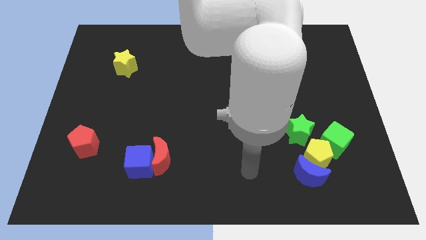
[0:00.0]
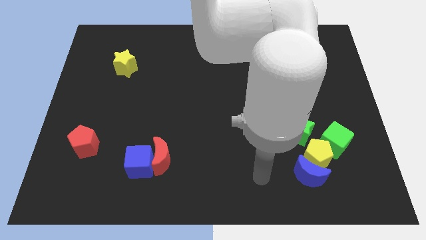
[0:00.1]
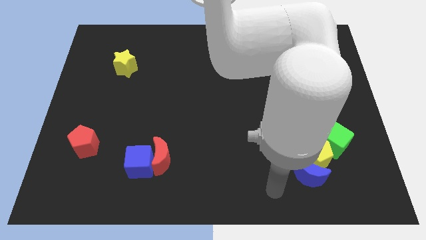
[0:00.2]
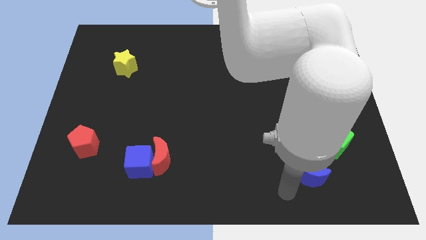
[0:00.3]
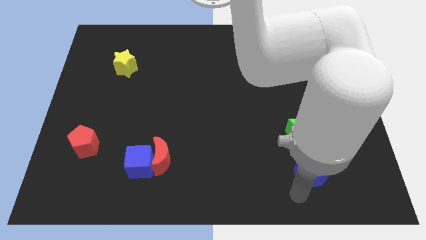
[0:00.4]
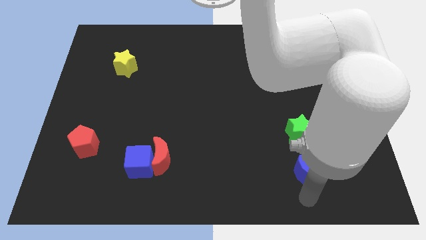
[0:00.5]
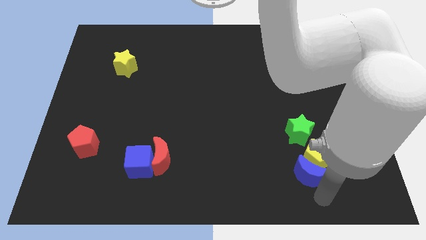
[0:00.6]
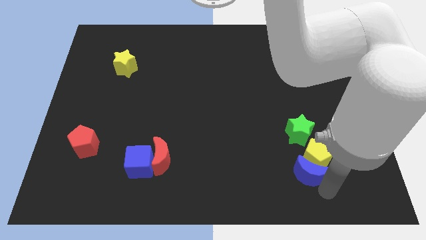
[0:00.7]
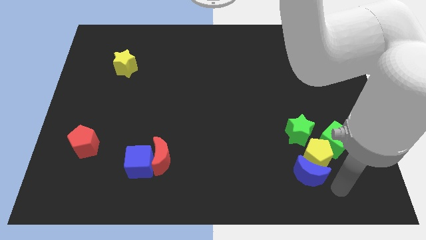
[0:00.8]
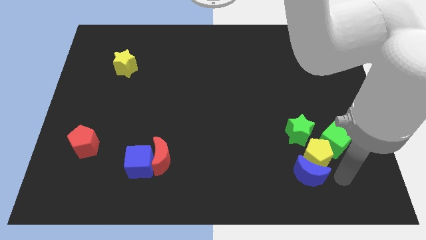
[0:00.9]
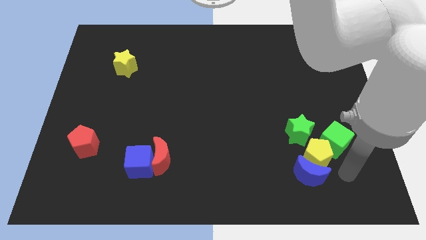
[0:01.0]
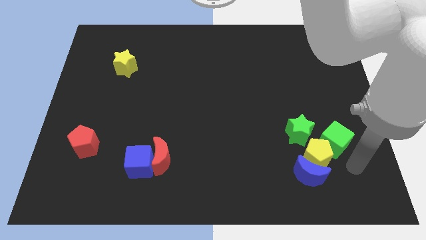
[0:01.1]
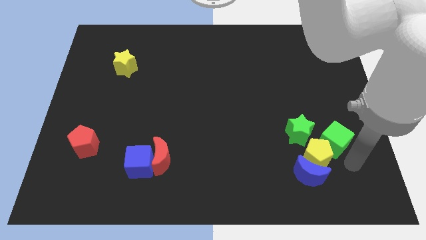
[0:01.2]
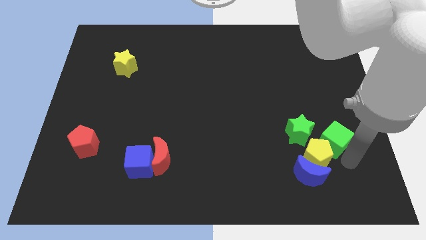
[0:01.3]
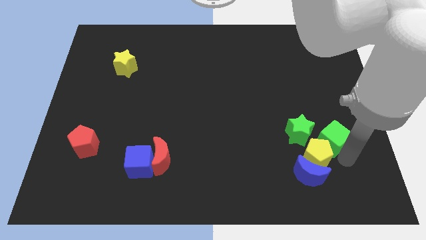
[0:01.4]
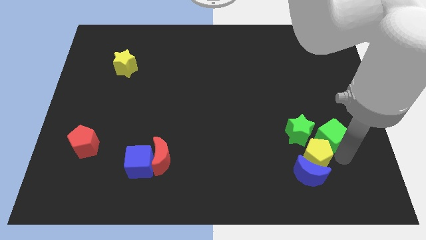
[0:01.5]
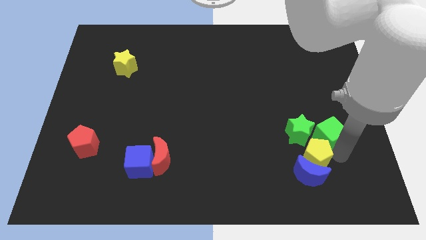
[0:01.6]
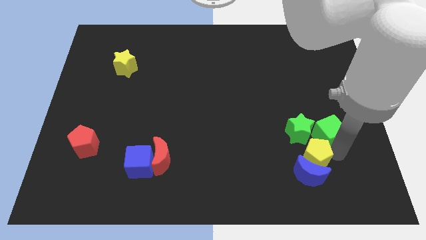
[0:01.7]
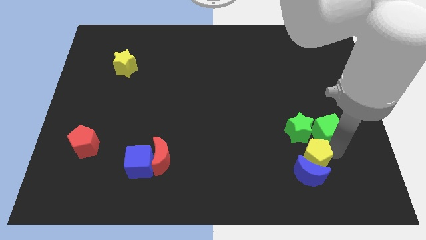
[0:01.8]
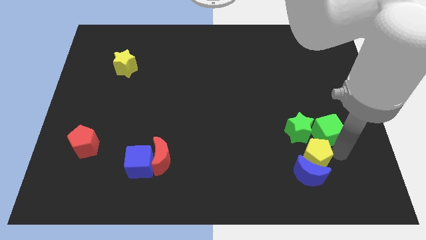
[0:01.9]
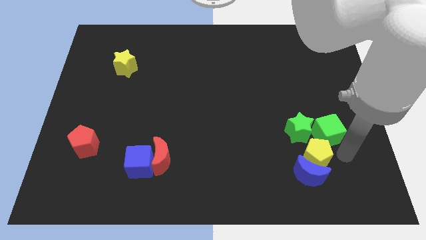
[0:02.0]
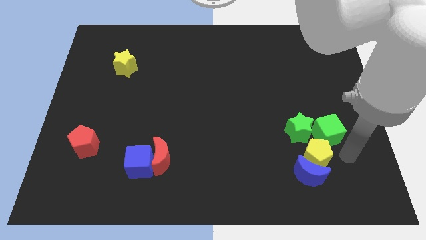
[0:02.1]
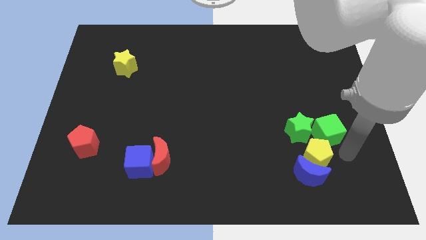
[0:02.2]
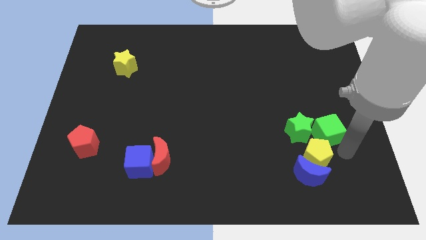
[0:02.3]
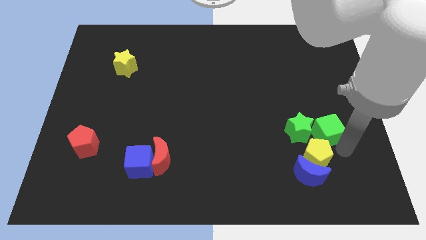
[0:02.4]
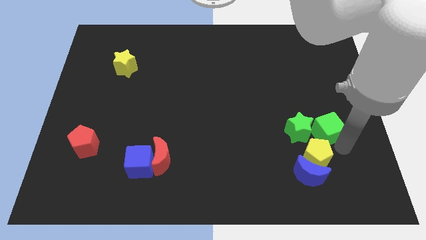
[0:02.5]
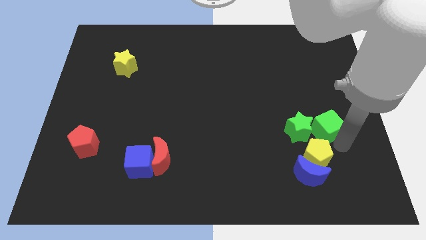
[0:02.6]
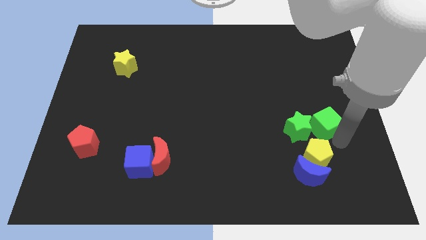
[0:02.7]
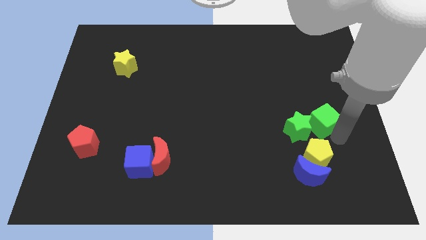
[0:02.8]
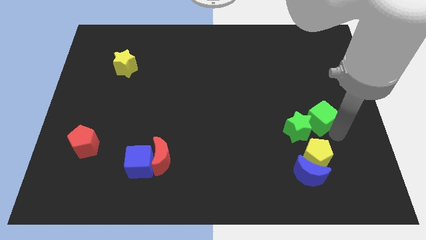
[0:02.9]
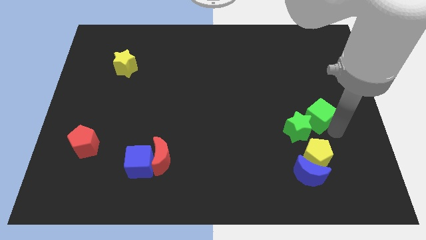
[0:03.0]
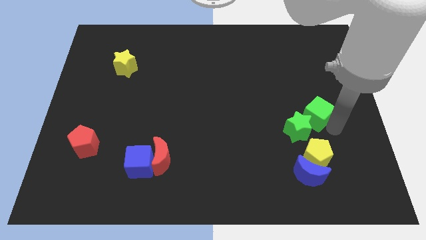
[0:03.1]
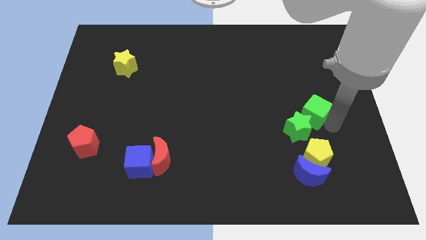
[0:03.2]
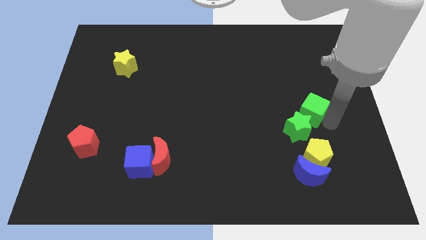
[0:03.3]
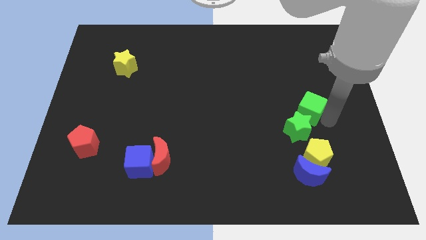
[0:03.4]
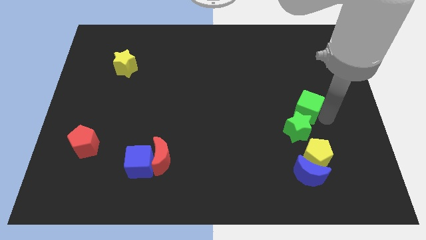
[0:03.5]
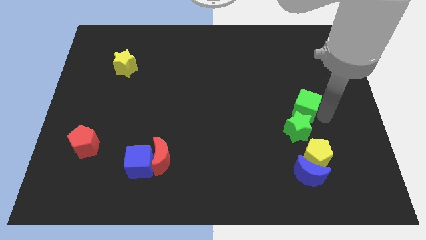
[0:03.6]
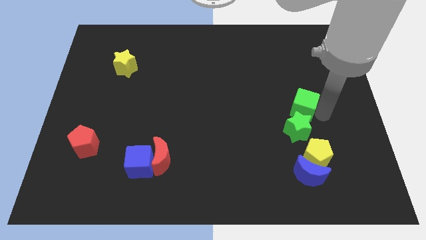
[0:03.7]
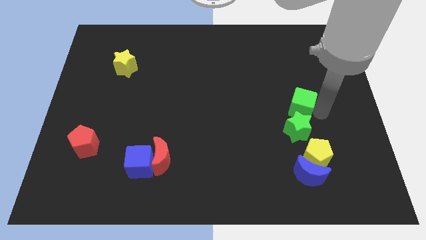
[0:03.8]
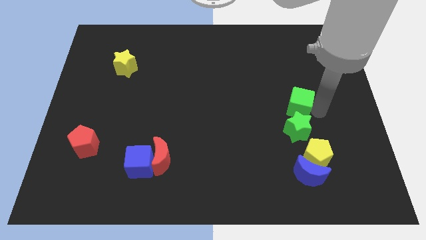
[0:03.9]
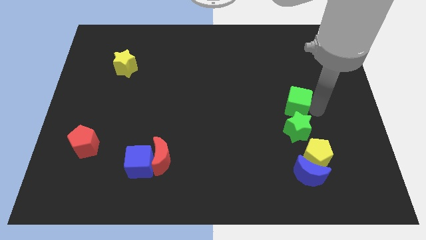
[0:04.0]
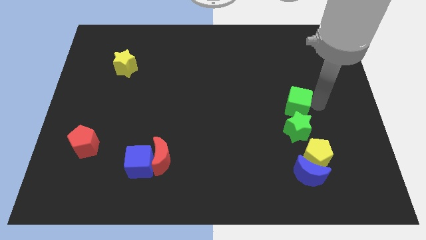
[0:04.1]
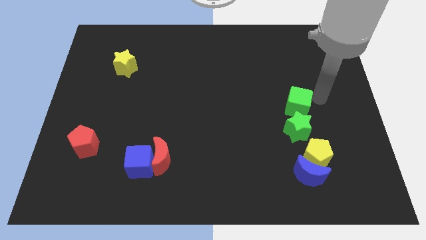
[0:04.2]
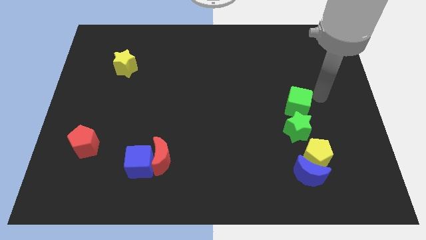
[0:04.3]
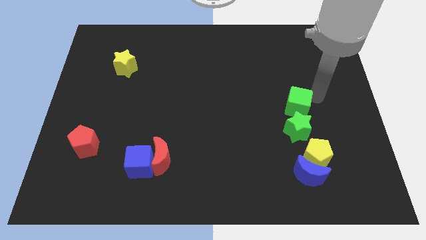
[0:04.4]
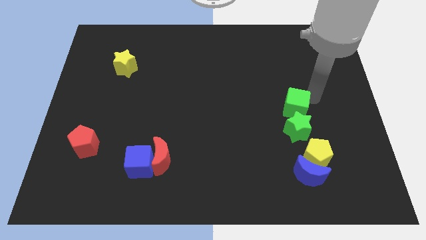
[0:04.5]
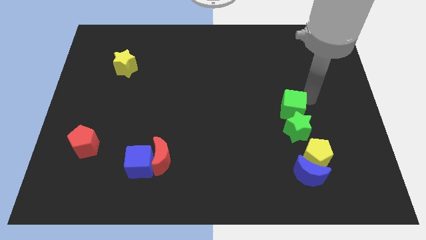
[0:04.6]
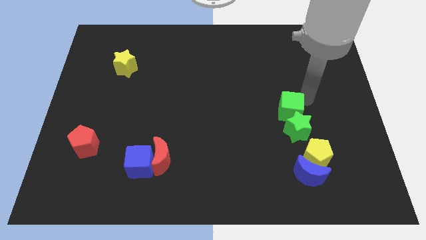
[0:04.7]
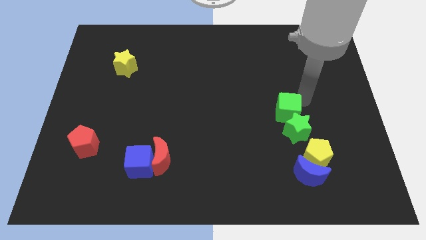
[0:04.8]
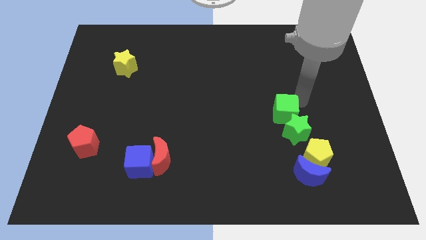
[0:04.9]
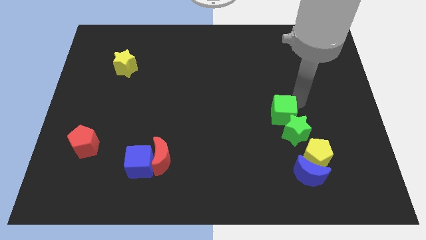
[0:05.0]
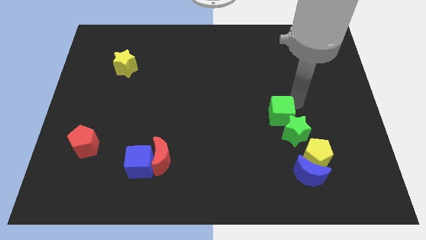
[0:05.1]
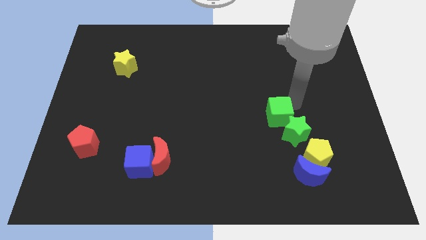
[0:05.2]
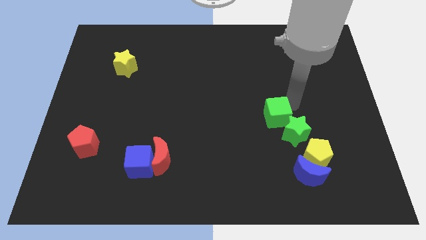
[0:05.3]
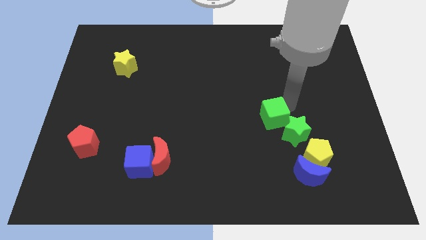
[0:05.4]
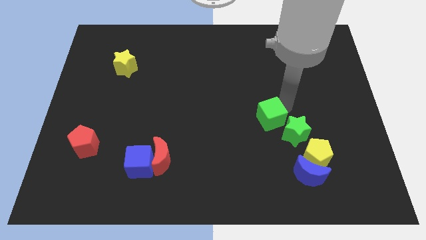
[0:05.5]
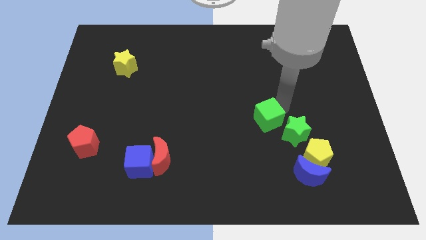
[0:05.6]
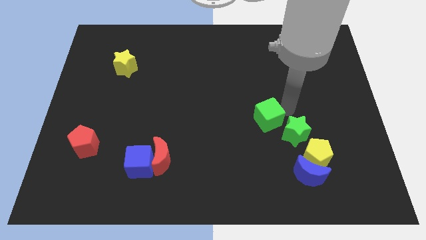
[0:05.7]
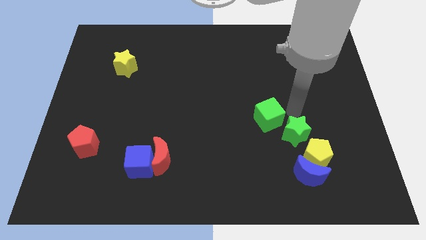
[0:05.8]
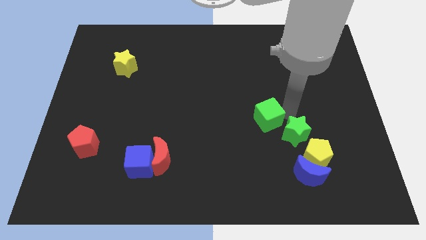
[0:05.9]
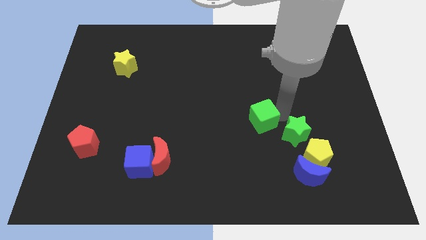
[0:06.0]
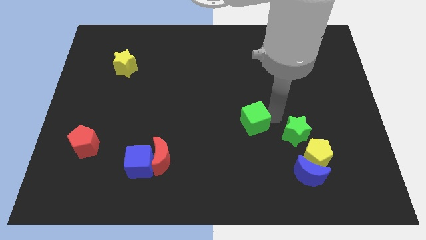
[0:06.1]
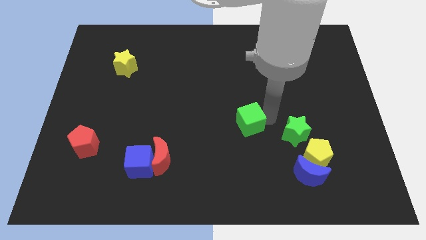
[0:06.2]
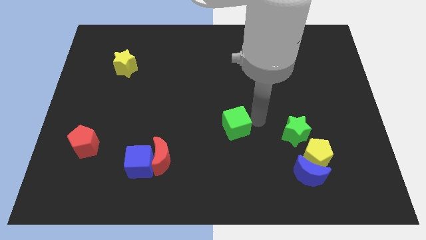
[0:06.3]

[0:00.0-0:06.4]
move the green cube to the left

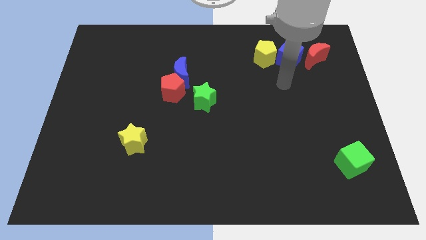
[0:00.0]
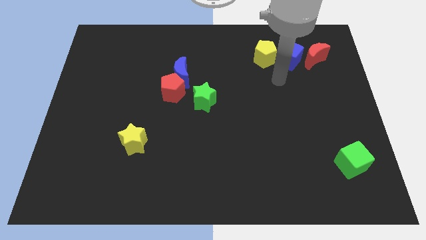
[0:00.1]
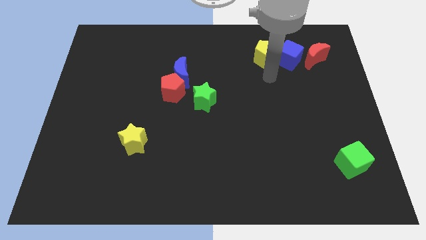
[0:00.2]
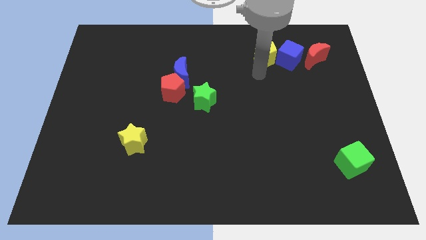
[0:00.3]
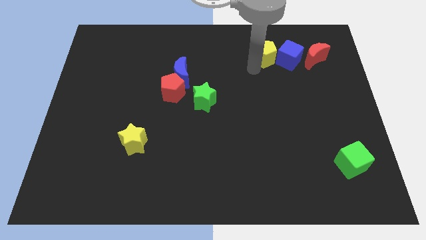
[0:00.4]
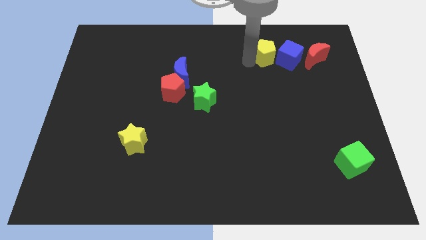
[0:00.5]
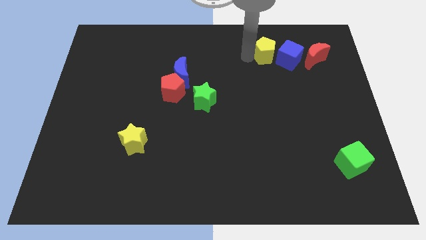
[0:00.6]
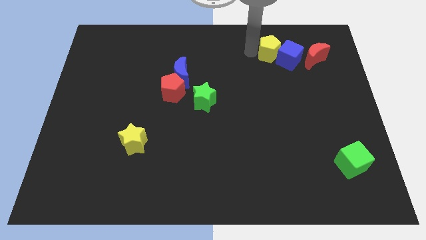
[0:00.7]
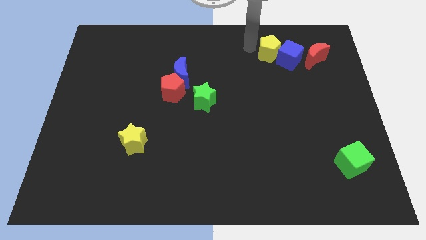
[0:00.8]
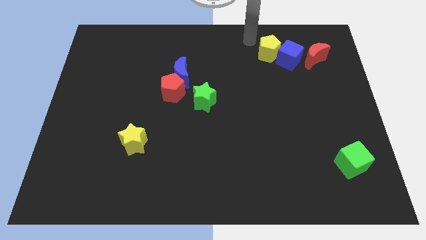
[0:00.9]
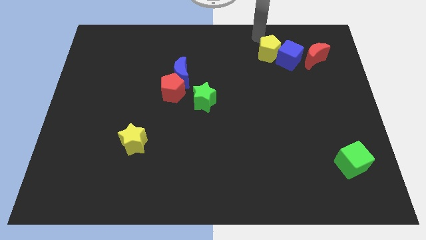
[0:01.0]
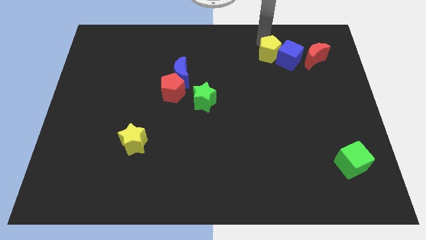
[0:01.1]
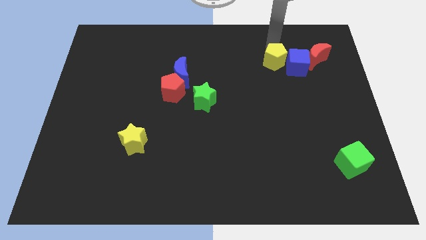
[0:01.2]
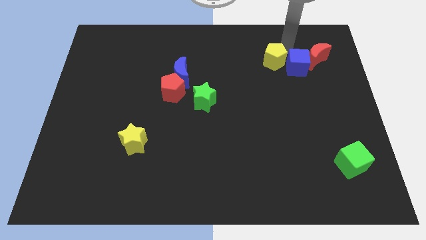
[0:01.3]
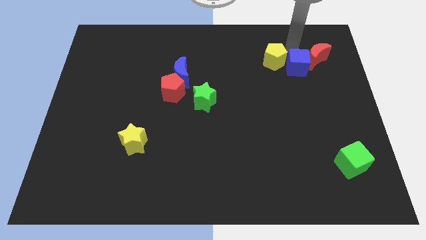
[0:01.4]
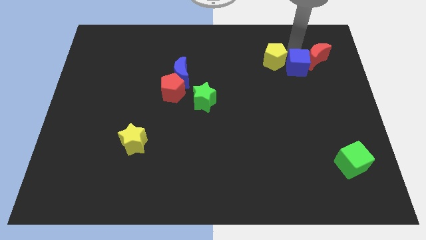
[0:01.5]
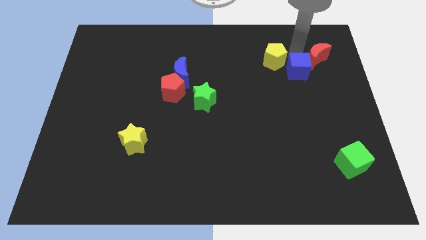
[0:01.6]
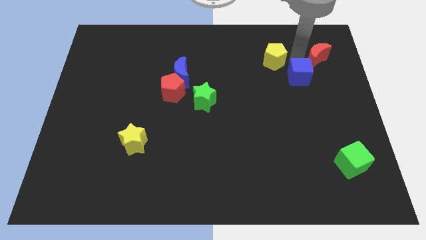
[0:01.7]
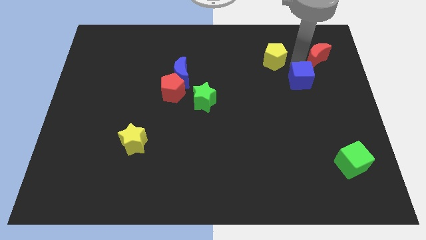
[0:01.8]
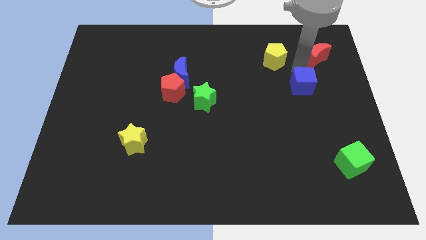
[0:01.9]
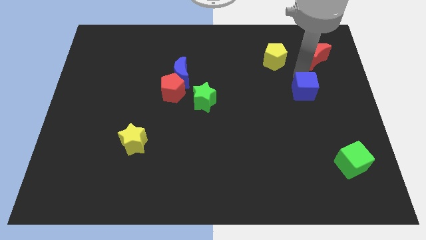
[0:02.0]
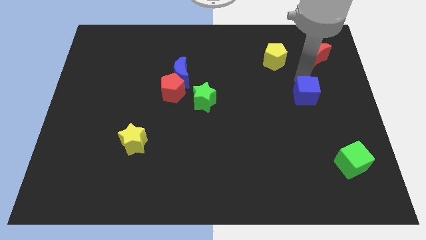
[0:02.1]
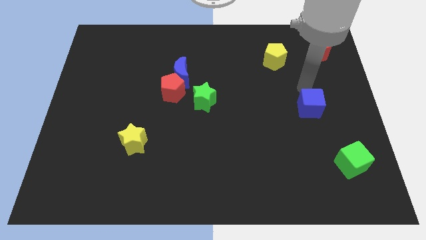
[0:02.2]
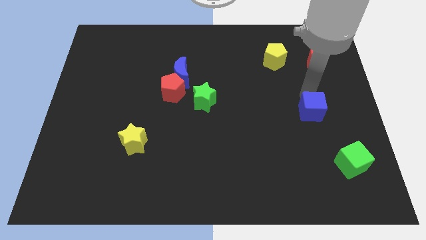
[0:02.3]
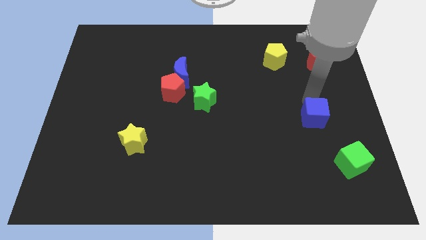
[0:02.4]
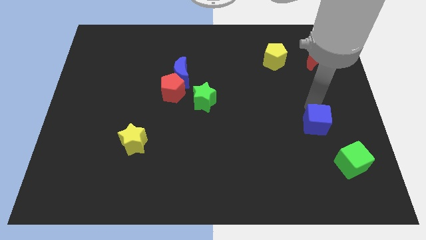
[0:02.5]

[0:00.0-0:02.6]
move the blue cube downwards
